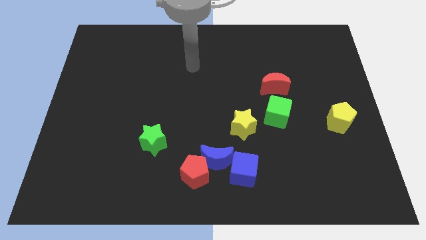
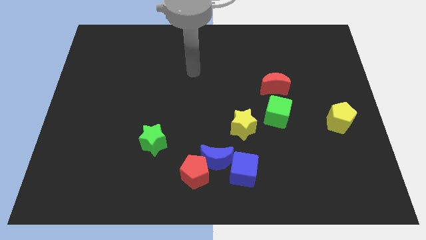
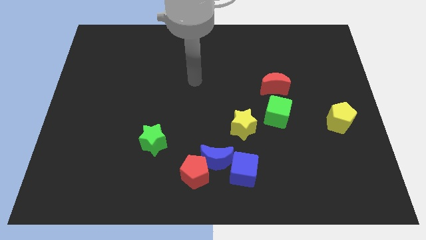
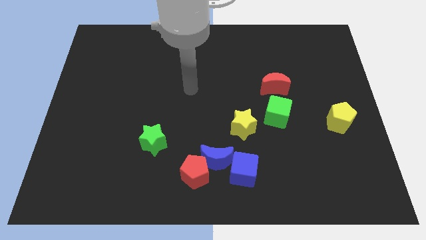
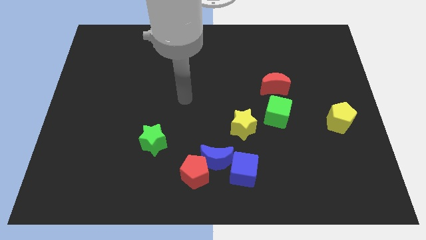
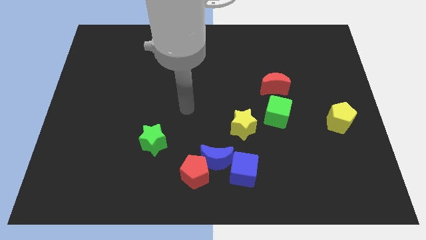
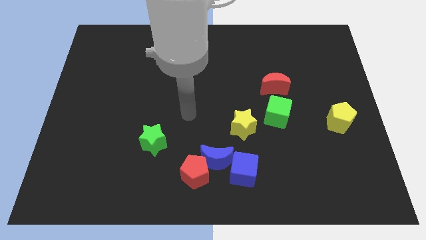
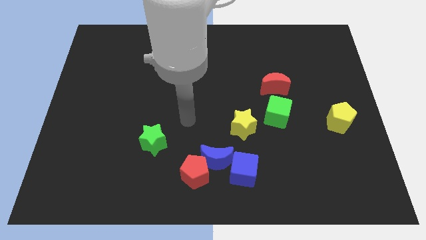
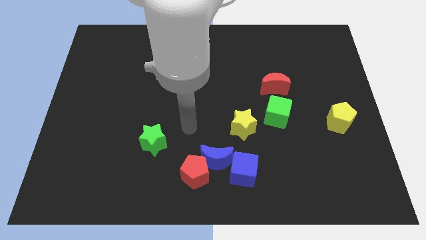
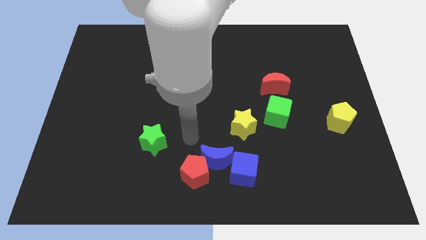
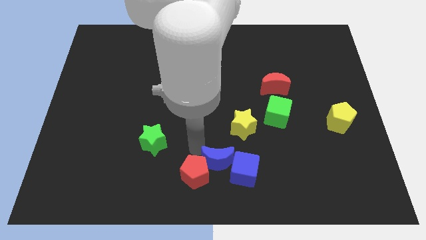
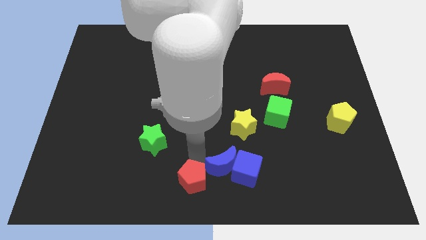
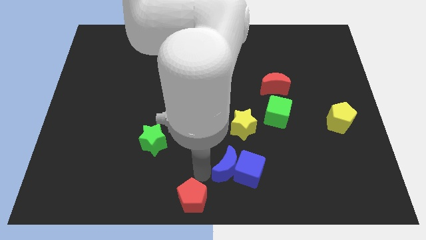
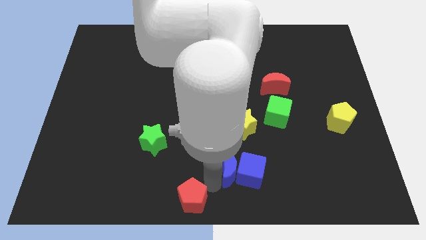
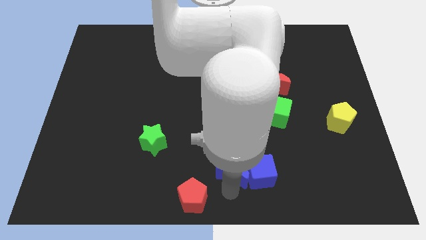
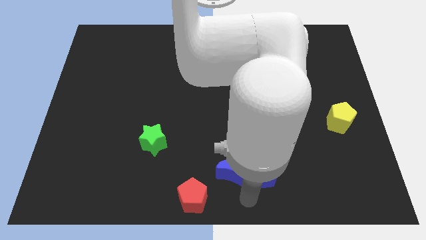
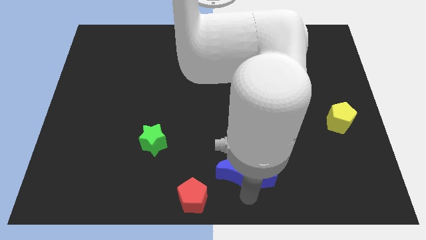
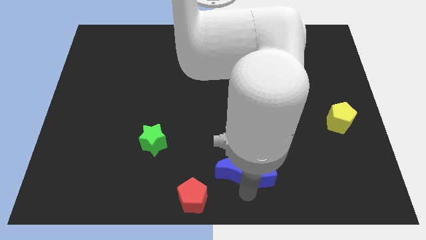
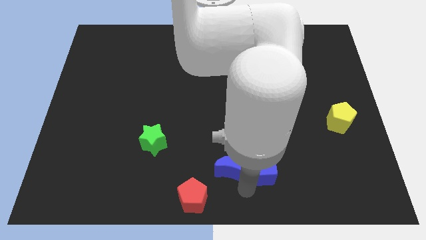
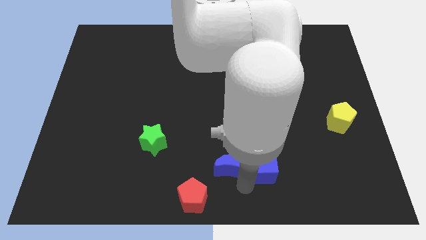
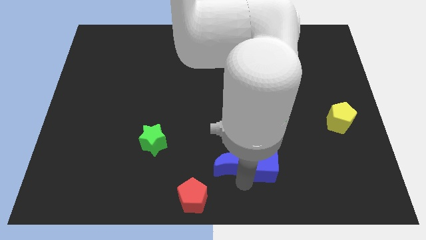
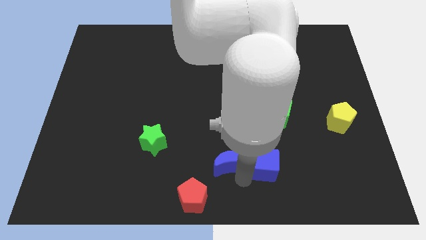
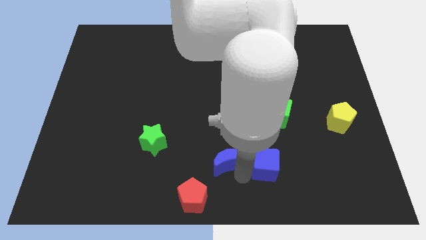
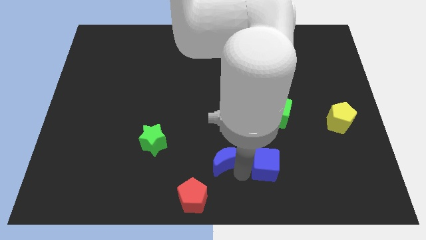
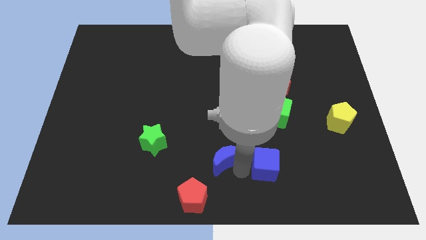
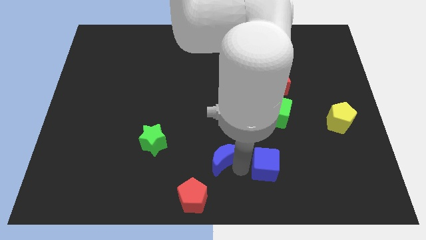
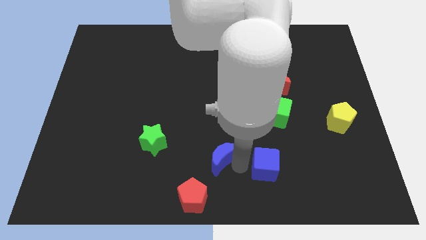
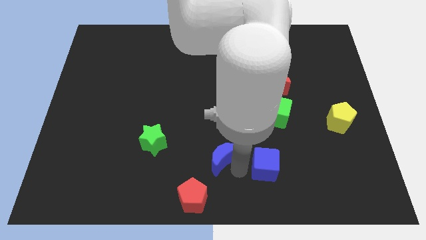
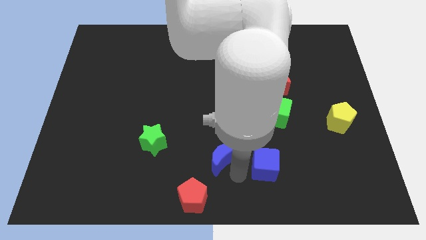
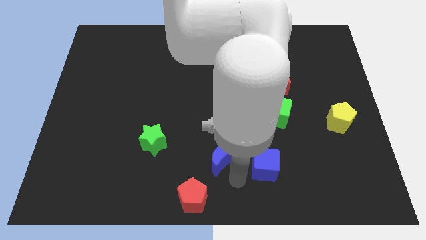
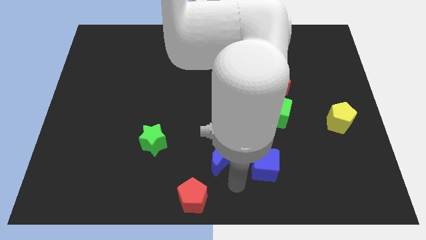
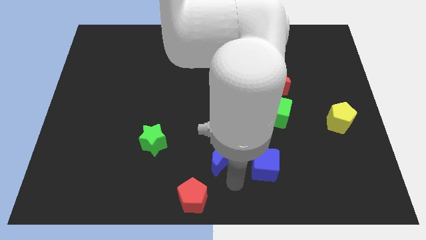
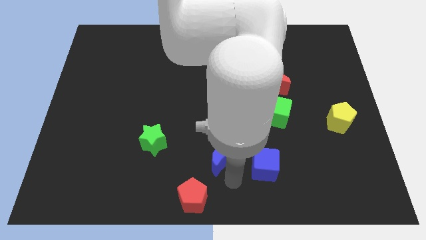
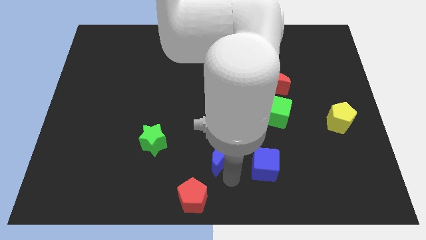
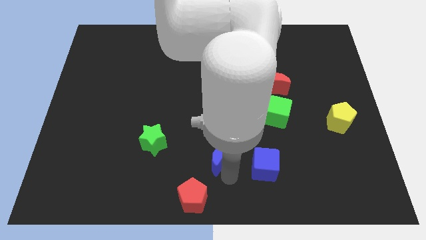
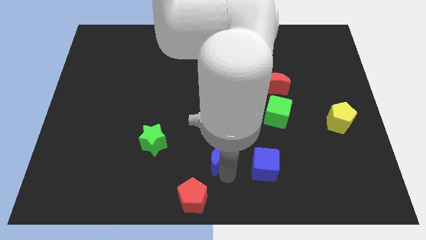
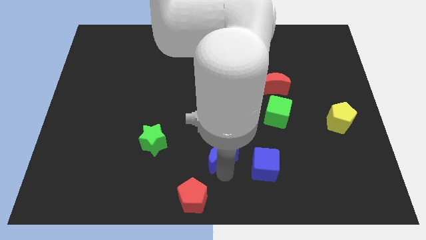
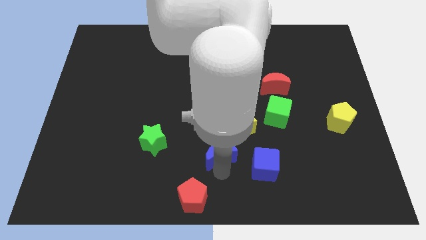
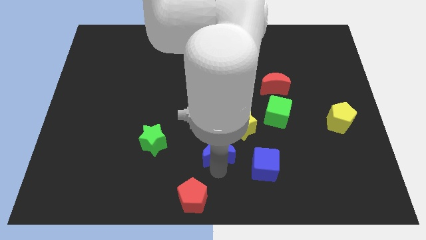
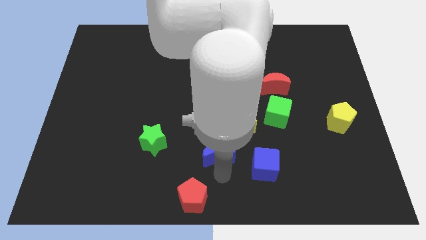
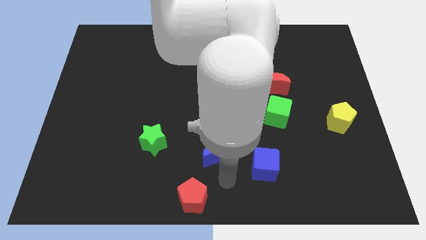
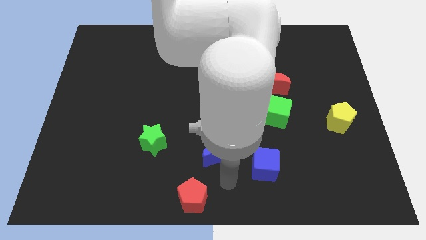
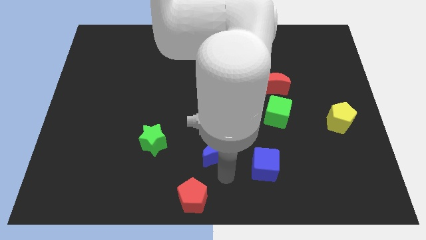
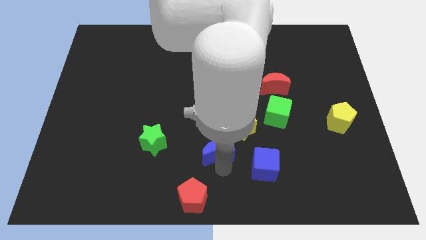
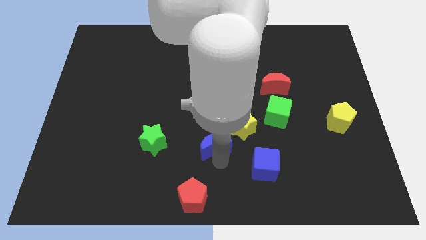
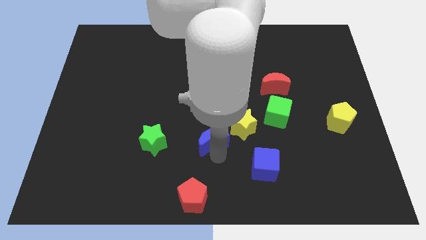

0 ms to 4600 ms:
pull the blue moon apart from the red pentagon and blue cube

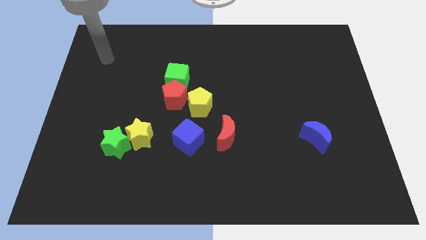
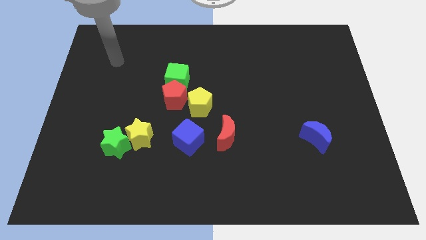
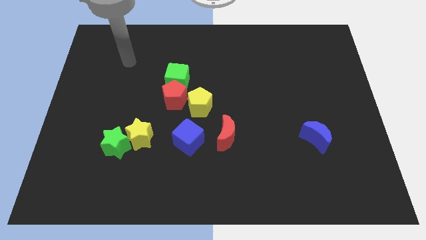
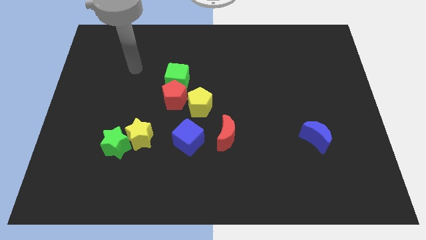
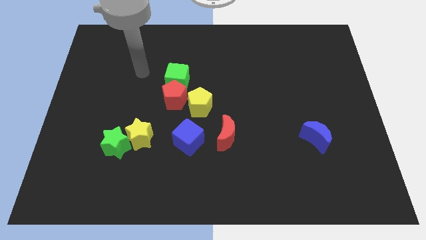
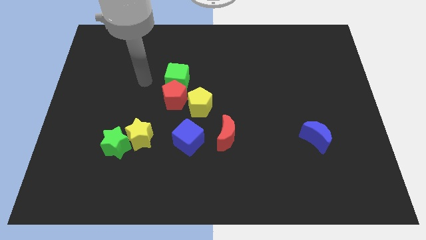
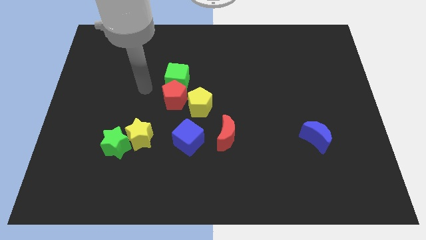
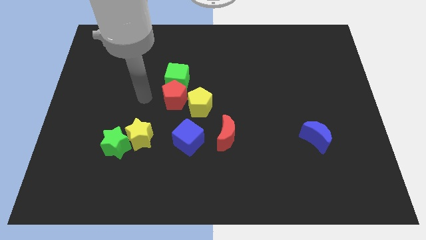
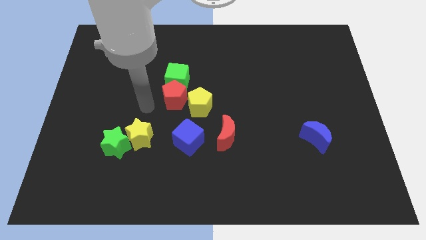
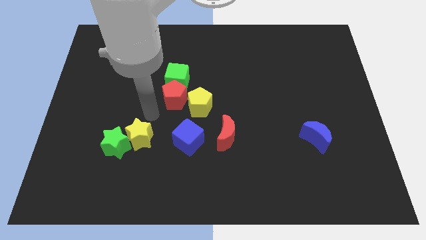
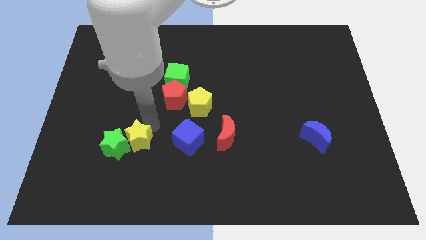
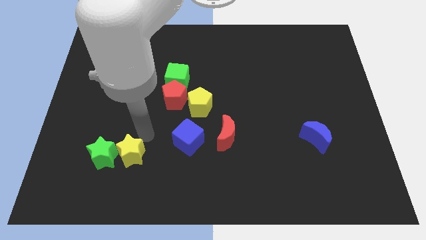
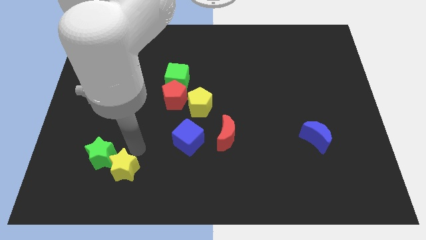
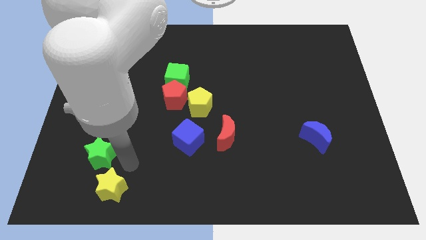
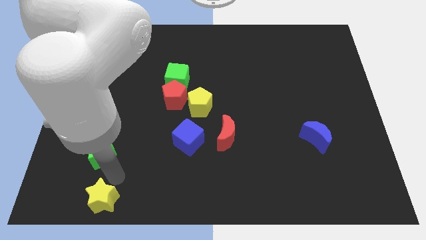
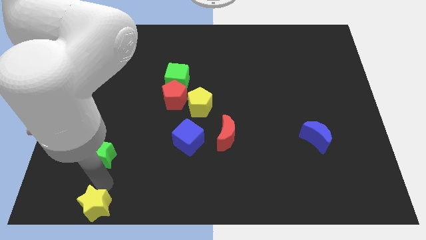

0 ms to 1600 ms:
move the green star away from the yellow star

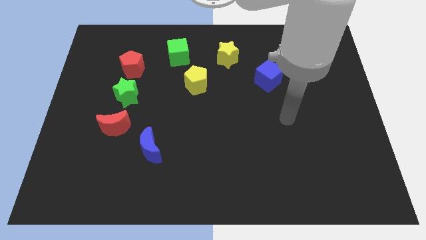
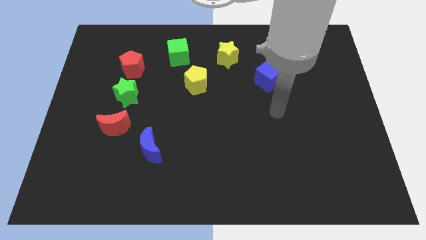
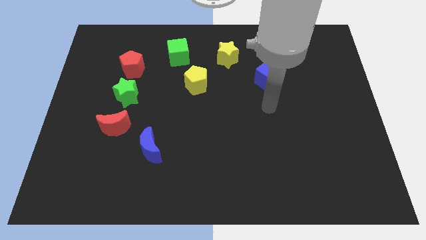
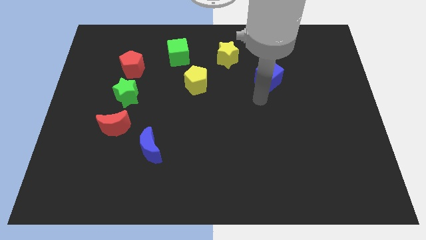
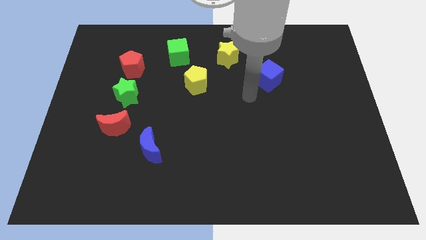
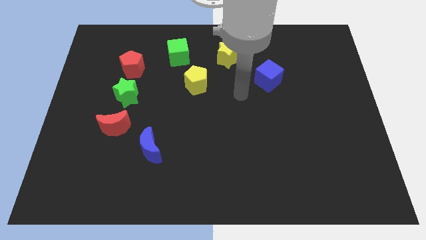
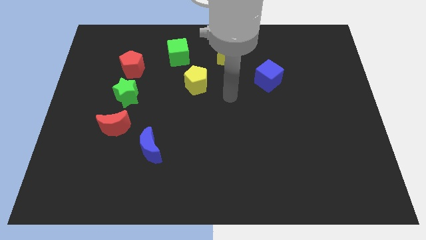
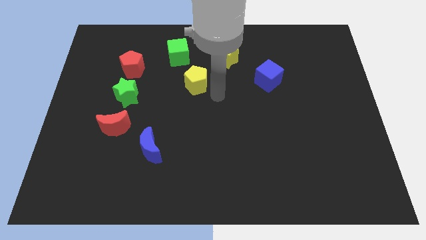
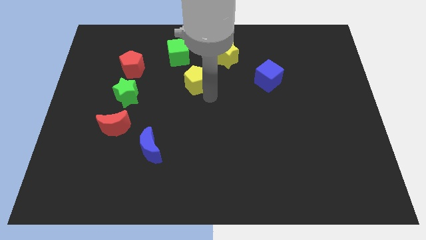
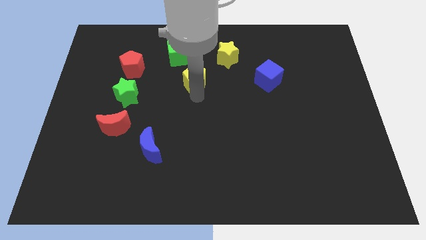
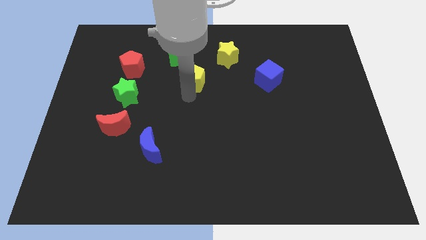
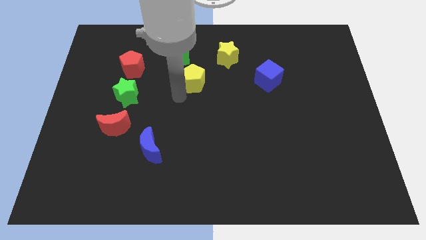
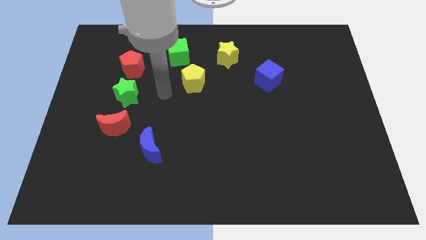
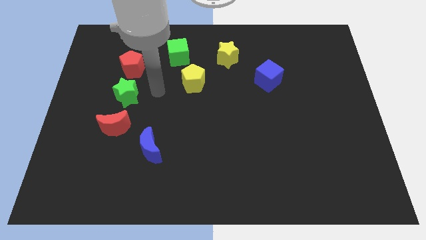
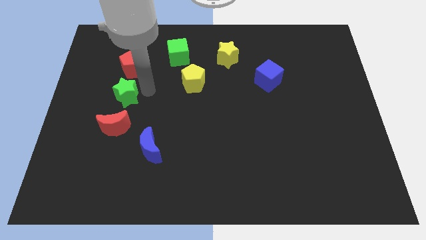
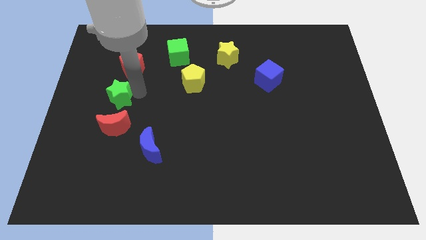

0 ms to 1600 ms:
move the red pentagon away from the green star

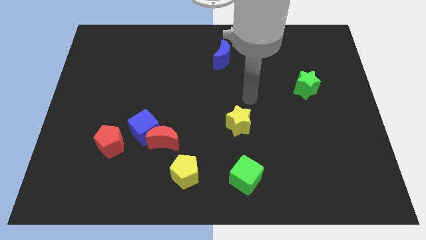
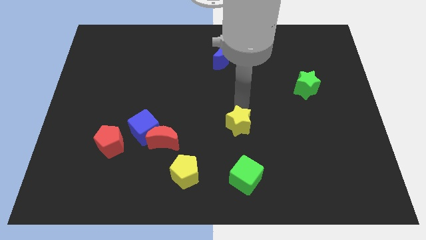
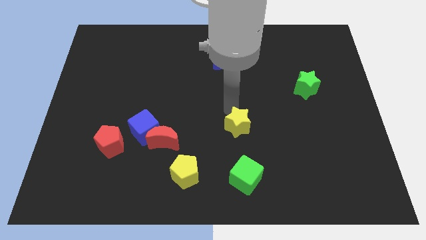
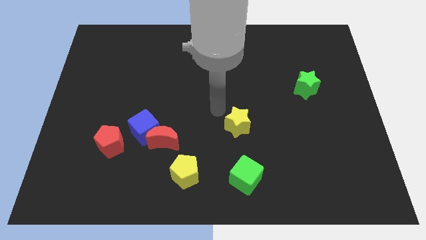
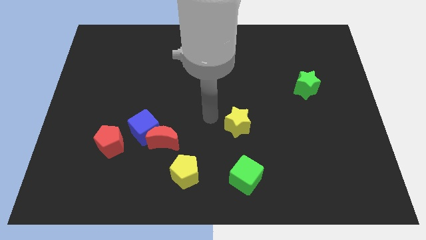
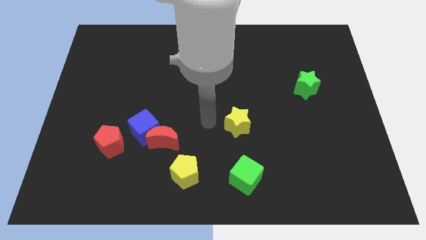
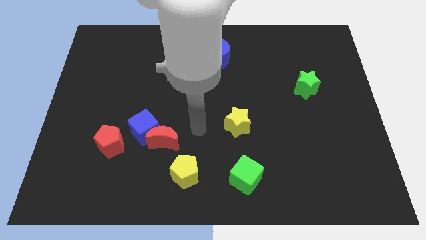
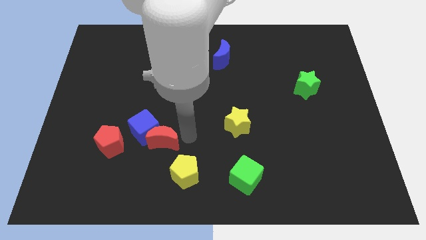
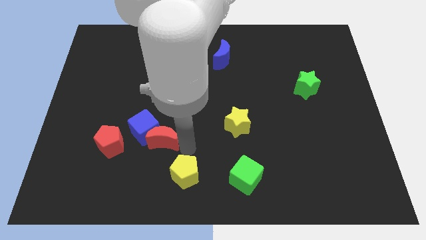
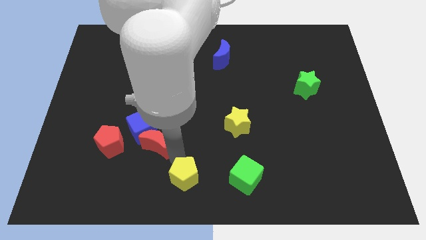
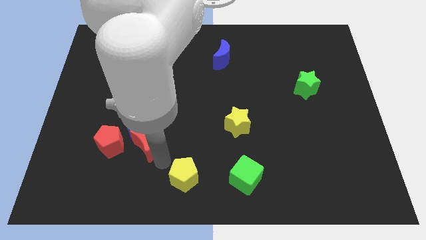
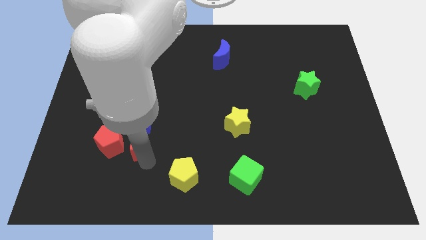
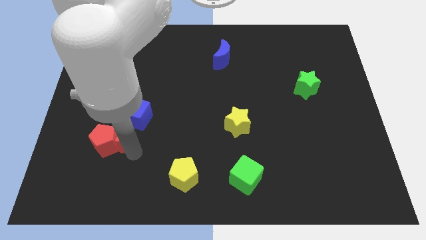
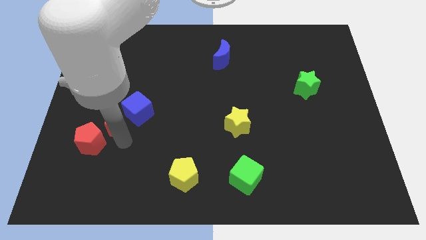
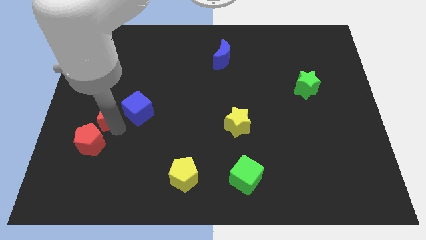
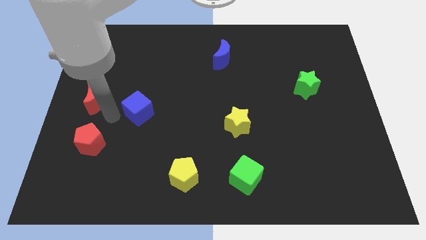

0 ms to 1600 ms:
separate the blue cube from the red moon and red pentagon
